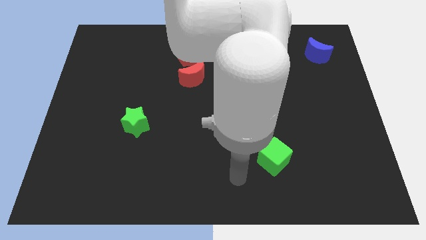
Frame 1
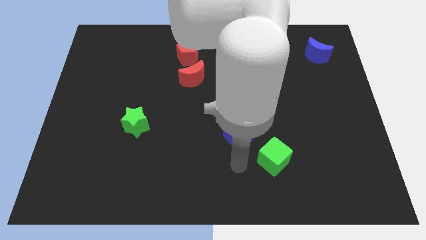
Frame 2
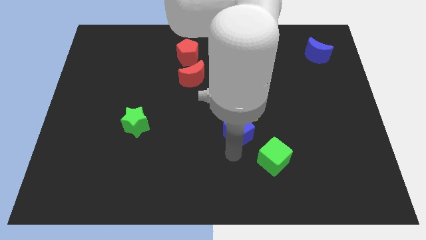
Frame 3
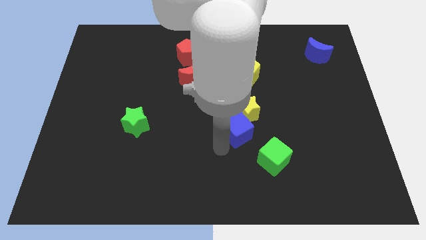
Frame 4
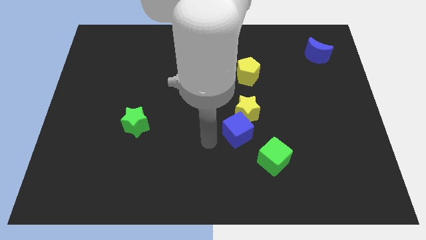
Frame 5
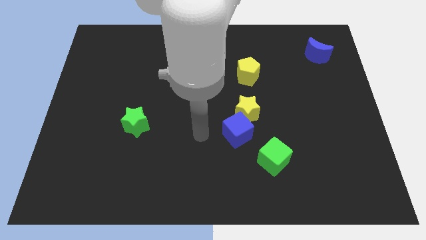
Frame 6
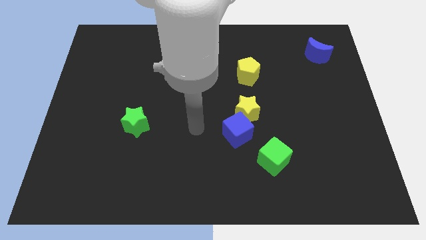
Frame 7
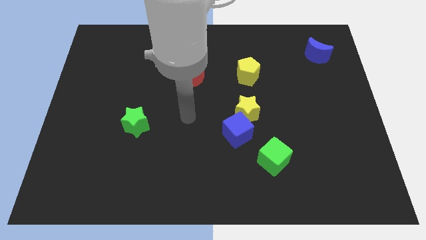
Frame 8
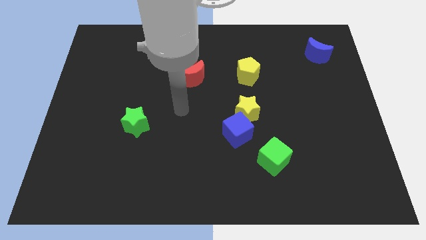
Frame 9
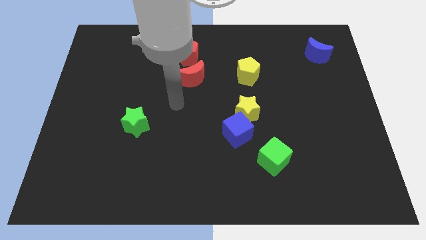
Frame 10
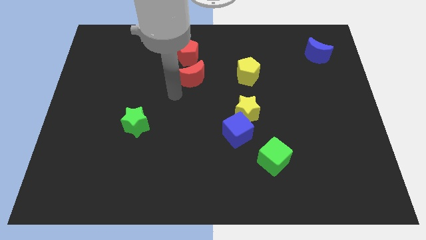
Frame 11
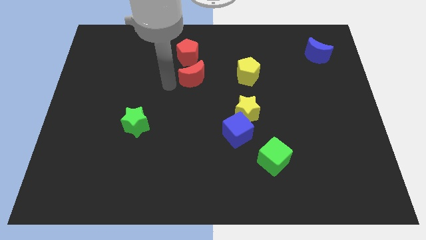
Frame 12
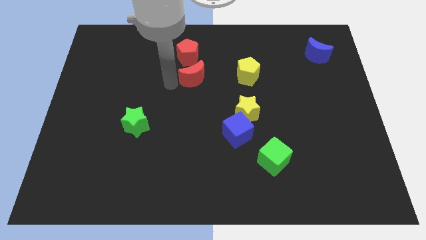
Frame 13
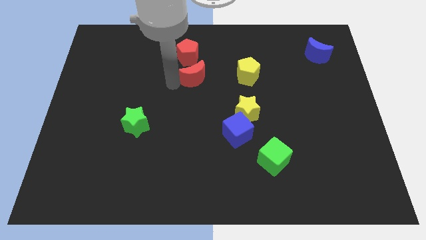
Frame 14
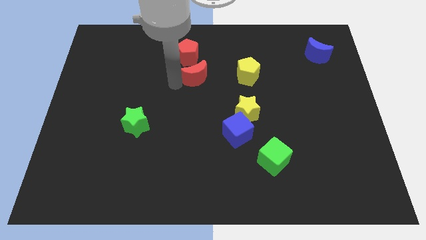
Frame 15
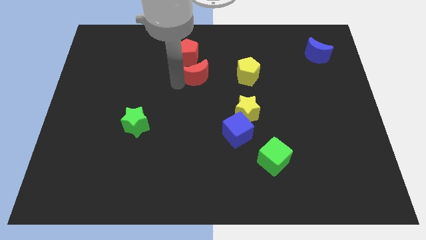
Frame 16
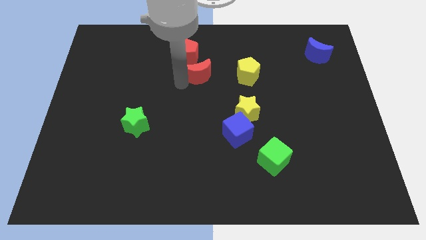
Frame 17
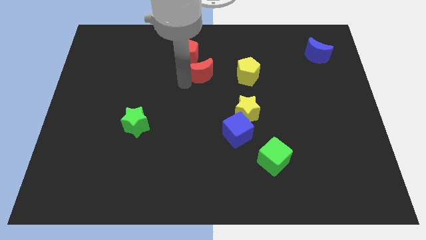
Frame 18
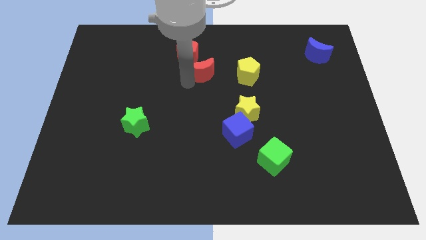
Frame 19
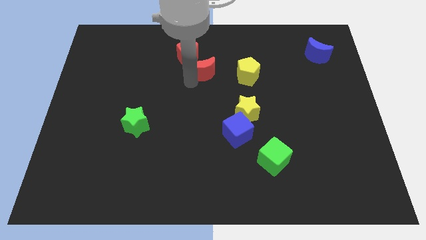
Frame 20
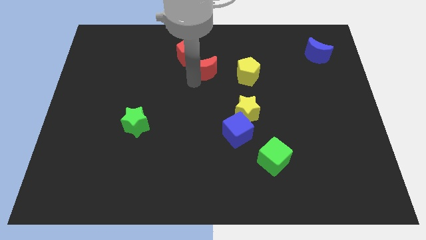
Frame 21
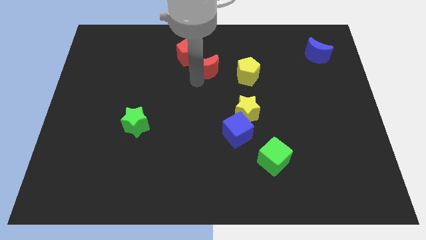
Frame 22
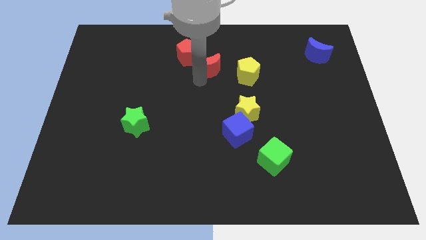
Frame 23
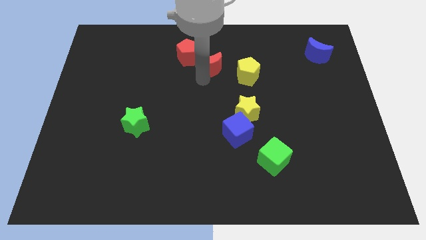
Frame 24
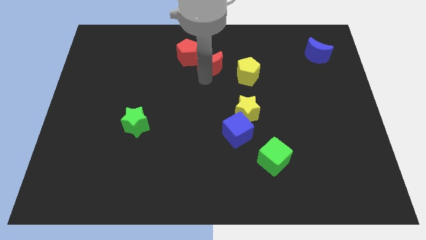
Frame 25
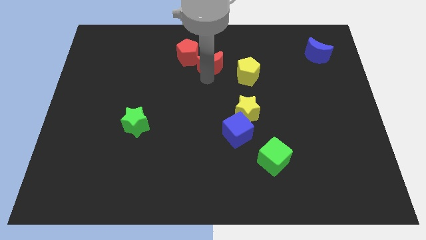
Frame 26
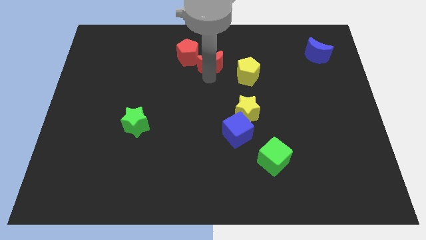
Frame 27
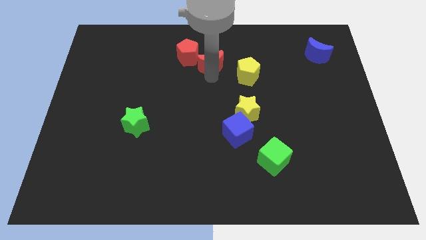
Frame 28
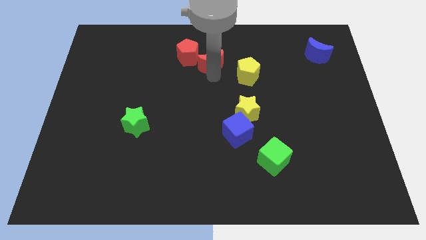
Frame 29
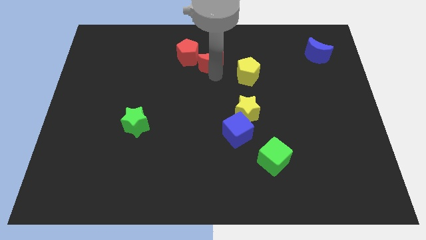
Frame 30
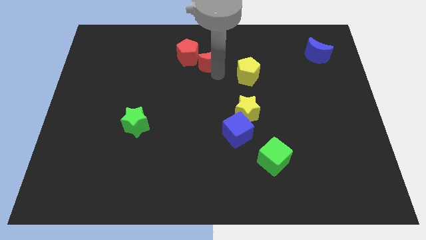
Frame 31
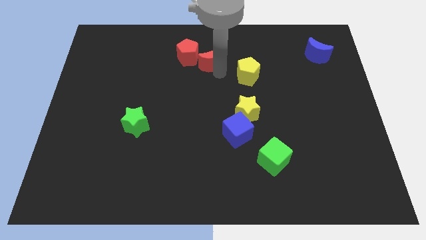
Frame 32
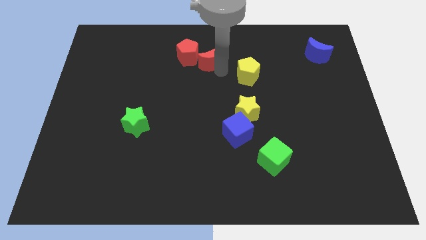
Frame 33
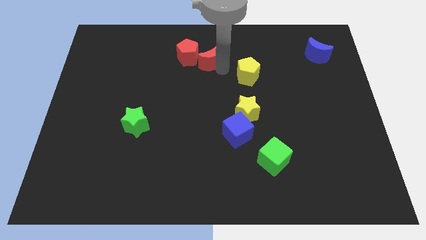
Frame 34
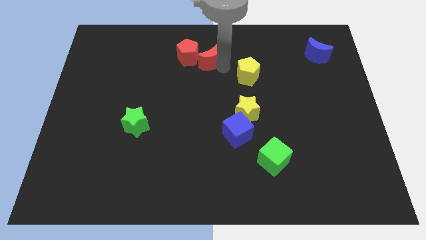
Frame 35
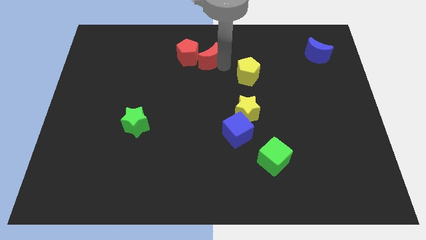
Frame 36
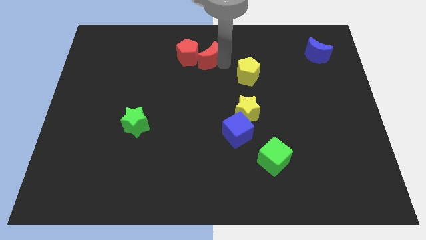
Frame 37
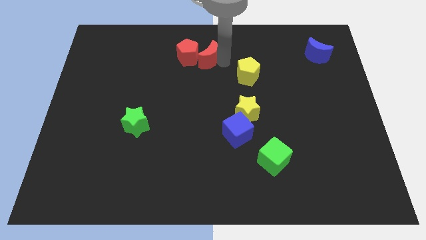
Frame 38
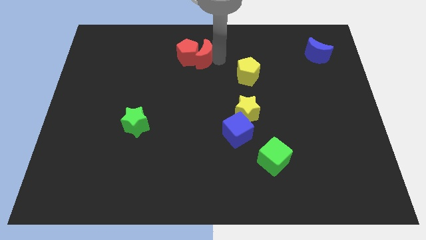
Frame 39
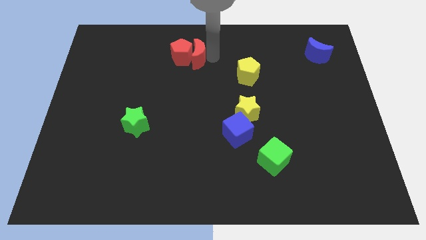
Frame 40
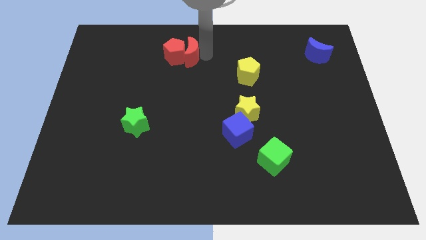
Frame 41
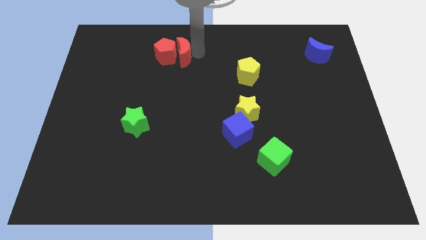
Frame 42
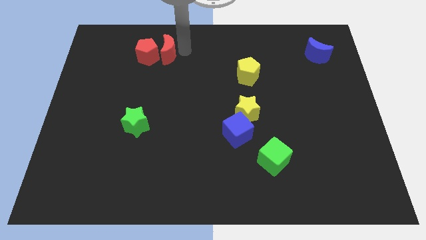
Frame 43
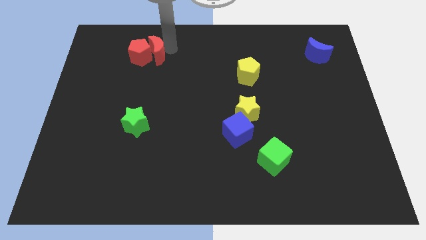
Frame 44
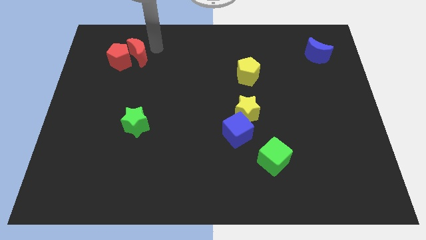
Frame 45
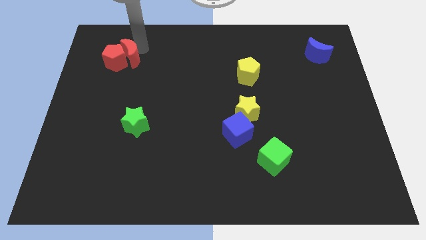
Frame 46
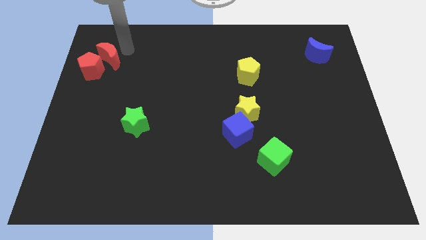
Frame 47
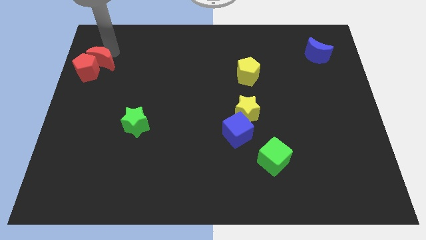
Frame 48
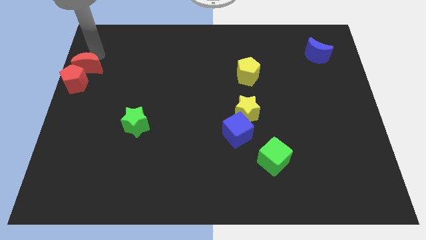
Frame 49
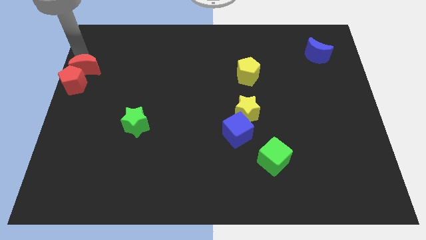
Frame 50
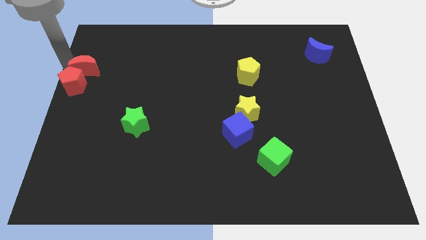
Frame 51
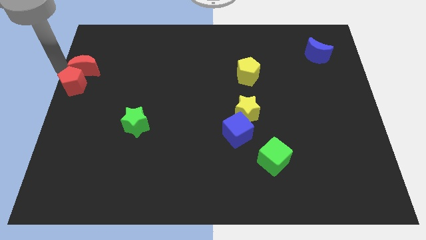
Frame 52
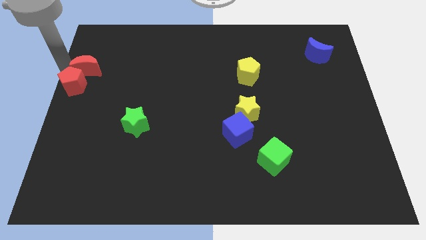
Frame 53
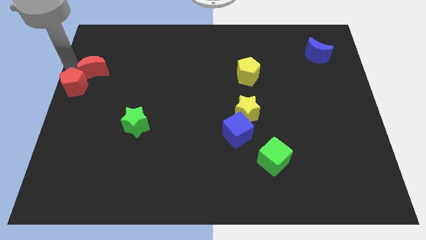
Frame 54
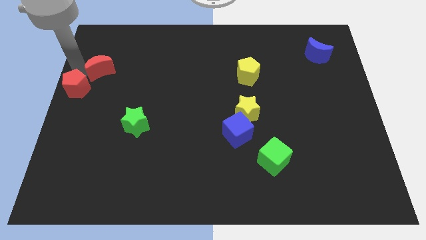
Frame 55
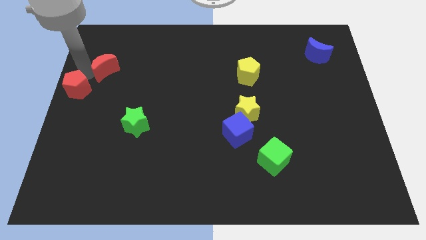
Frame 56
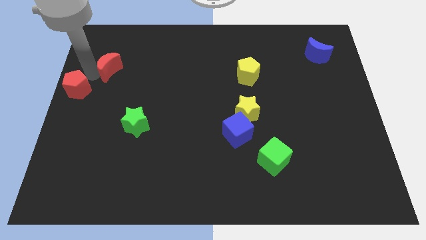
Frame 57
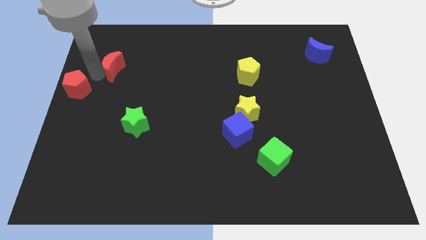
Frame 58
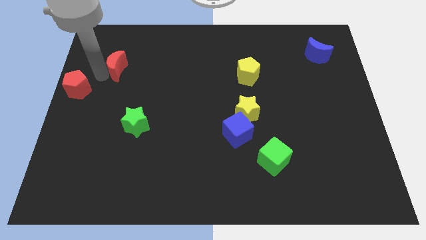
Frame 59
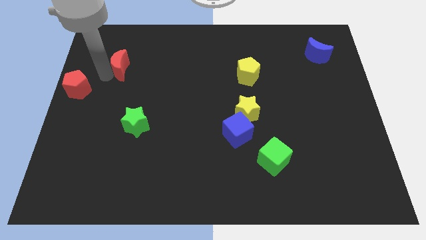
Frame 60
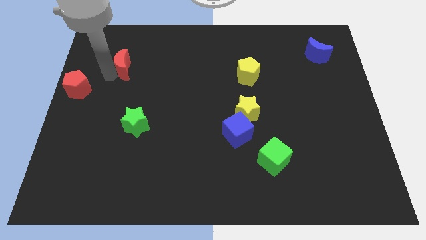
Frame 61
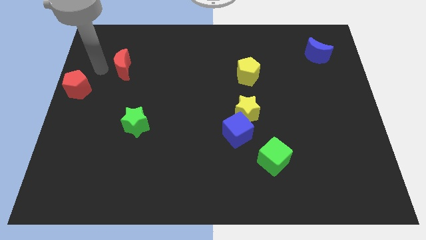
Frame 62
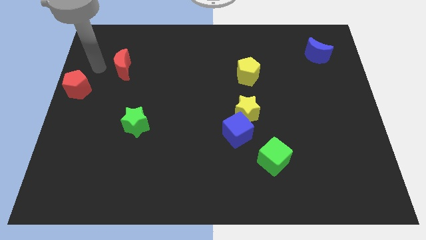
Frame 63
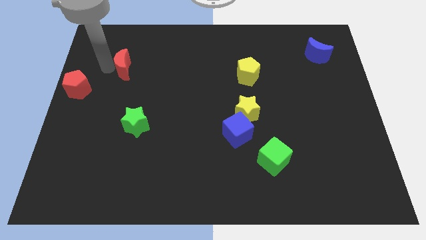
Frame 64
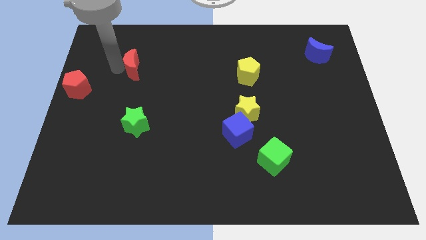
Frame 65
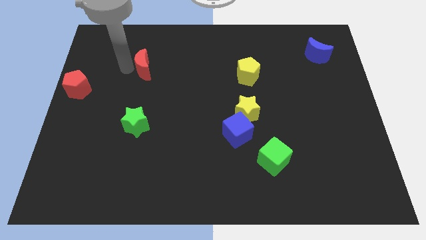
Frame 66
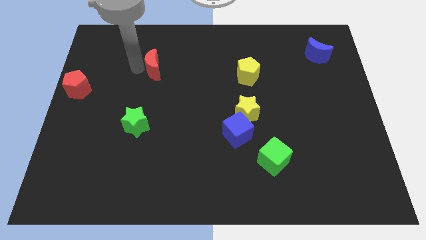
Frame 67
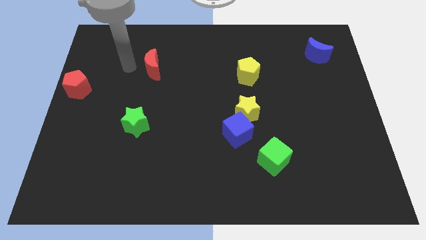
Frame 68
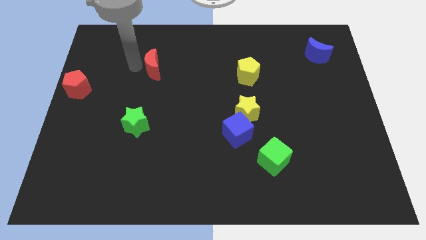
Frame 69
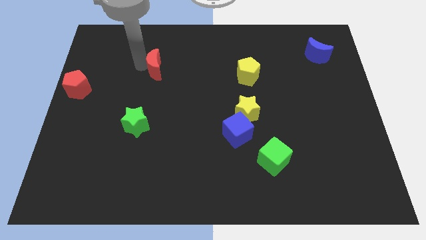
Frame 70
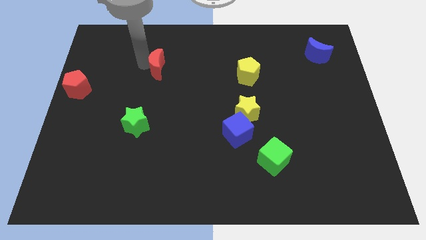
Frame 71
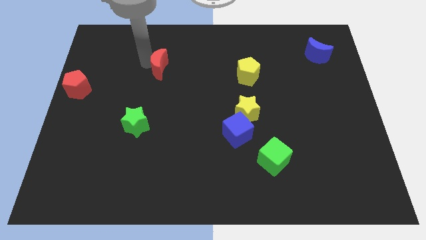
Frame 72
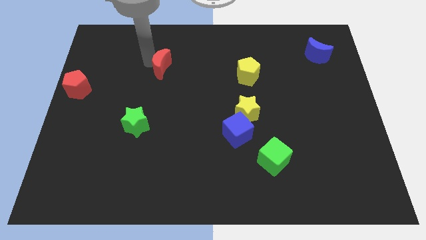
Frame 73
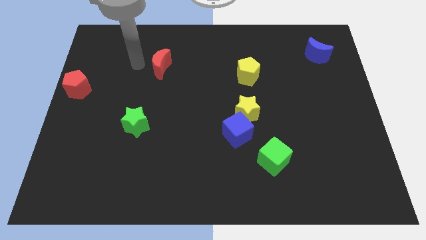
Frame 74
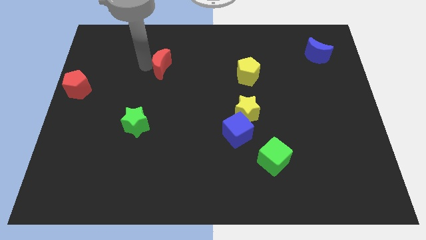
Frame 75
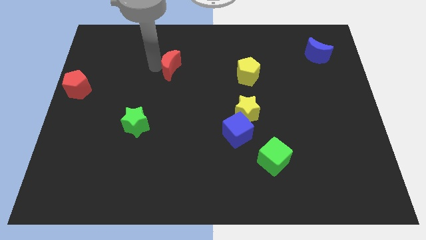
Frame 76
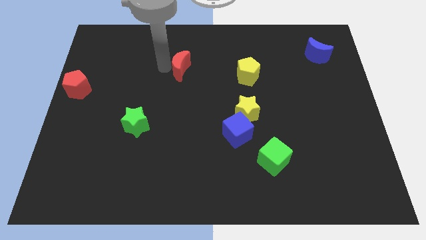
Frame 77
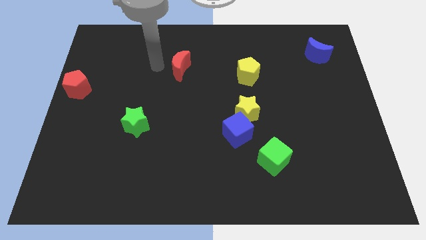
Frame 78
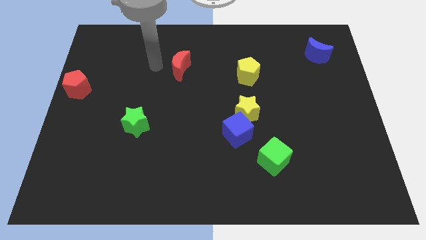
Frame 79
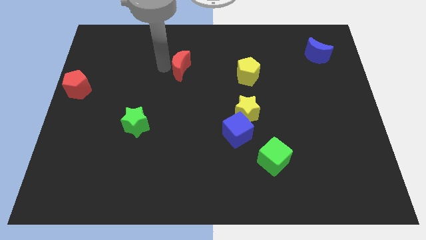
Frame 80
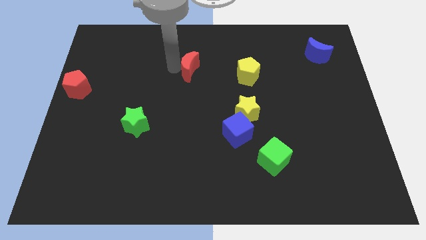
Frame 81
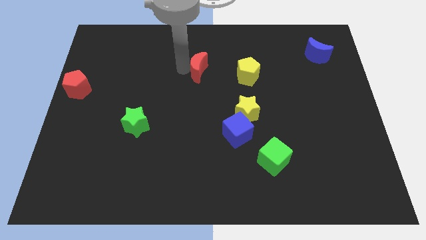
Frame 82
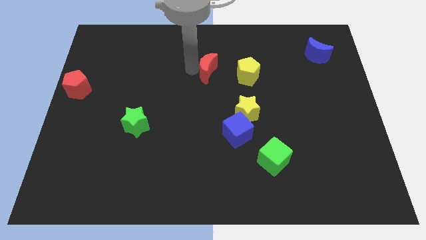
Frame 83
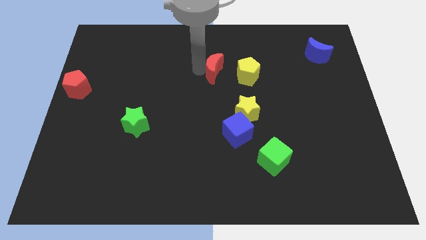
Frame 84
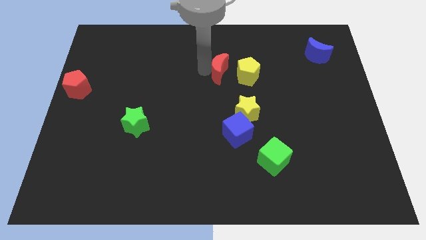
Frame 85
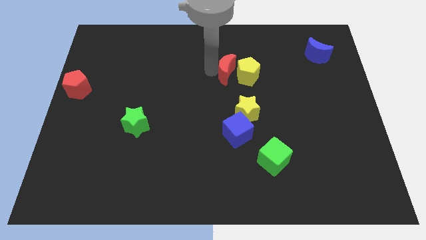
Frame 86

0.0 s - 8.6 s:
push the red moon next to the yellow pentagon
